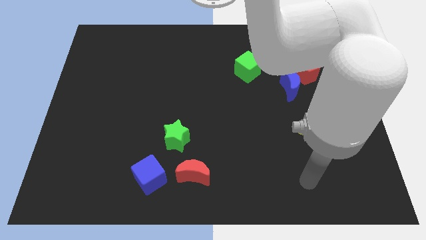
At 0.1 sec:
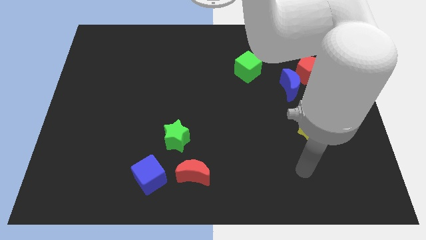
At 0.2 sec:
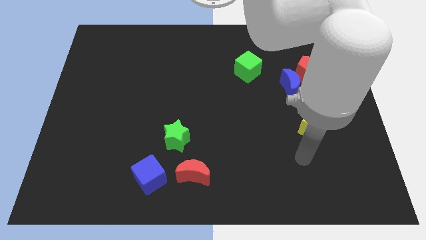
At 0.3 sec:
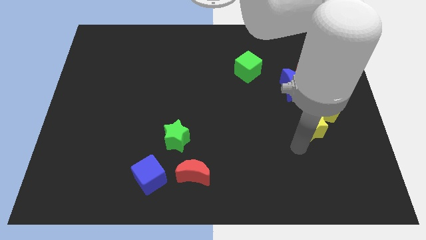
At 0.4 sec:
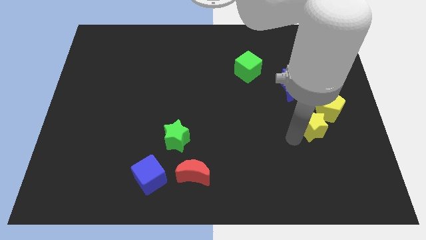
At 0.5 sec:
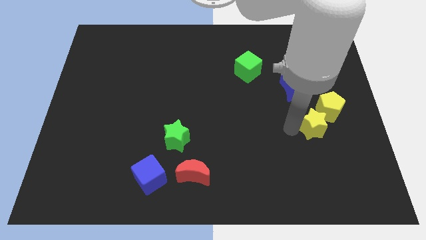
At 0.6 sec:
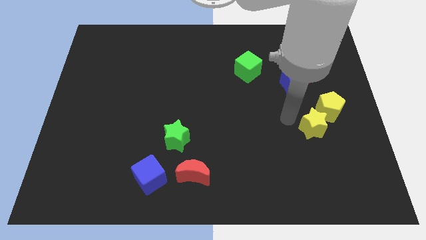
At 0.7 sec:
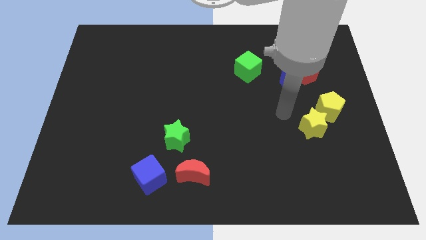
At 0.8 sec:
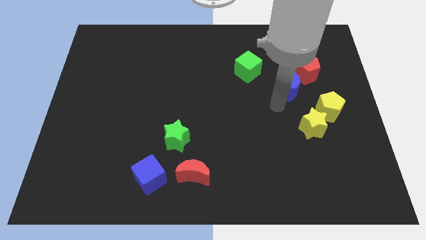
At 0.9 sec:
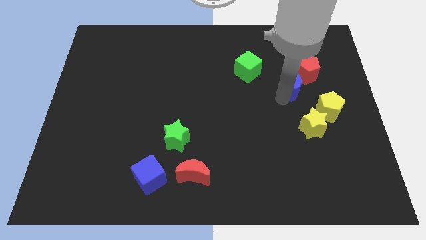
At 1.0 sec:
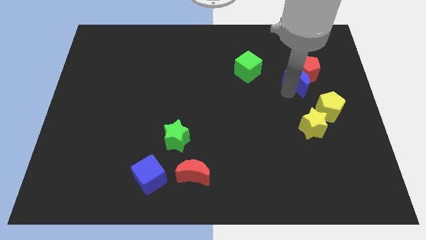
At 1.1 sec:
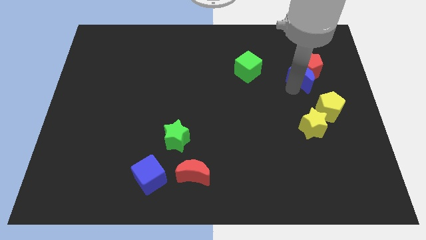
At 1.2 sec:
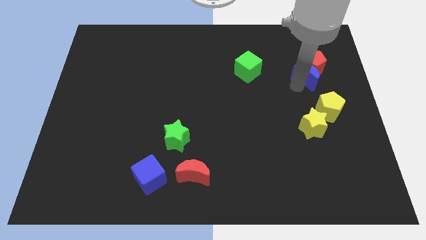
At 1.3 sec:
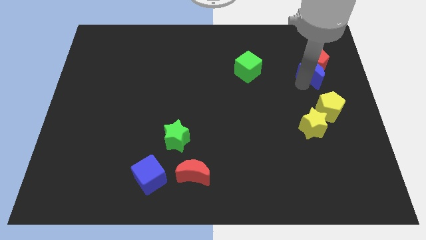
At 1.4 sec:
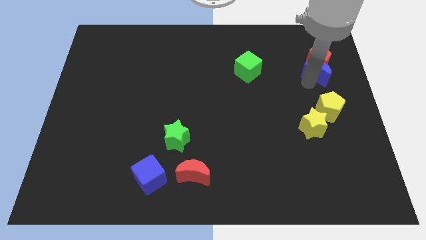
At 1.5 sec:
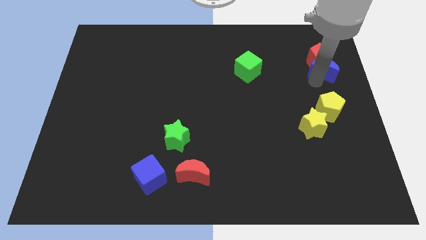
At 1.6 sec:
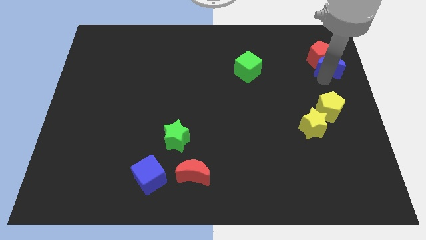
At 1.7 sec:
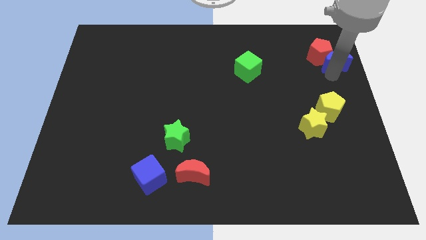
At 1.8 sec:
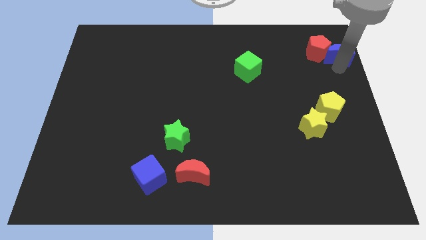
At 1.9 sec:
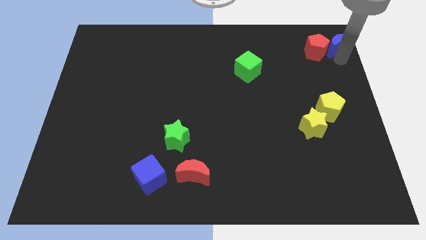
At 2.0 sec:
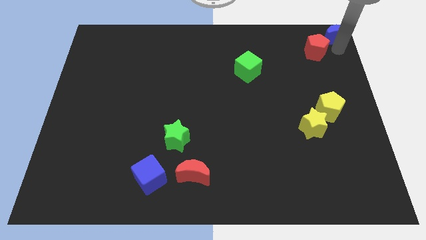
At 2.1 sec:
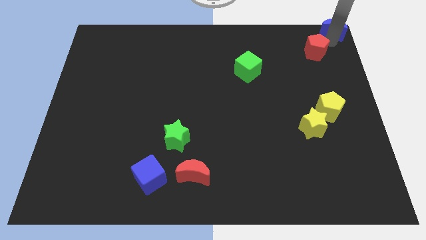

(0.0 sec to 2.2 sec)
separate the red pentagon from the blue moon

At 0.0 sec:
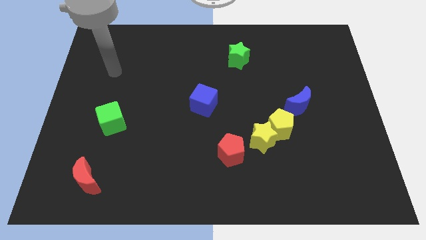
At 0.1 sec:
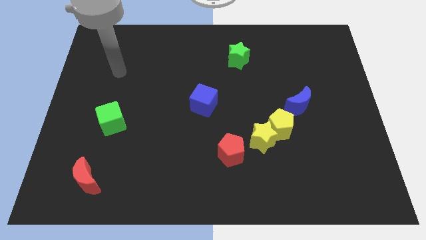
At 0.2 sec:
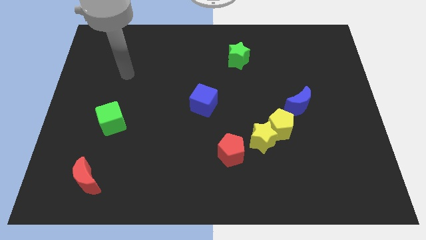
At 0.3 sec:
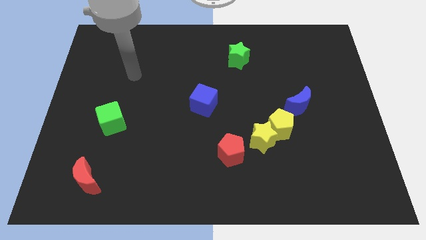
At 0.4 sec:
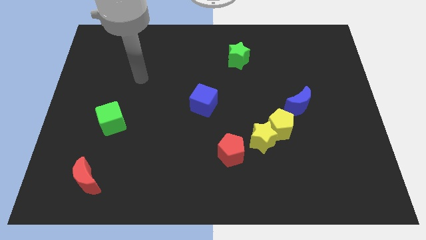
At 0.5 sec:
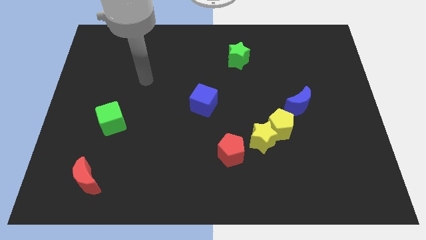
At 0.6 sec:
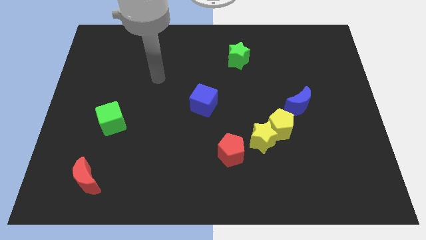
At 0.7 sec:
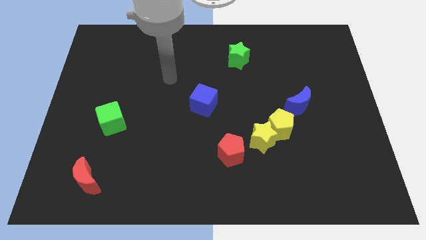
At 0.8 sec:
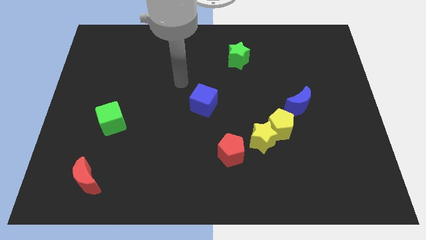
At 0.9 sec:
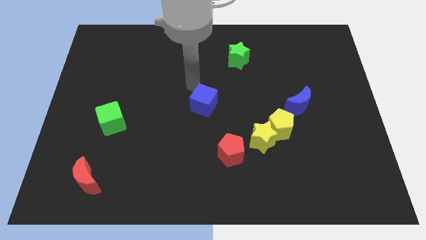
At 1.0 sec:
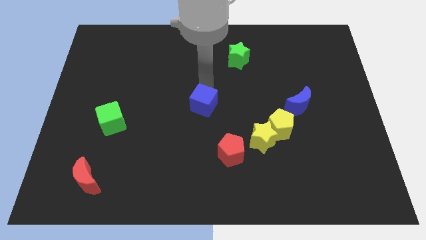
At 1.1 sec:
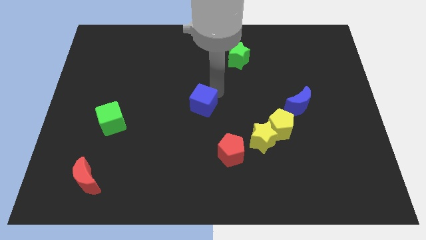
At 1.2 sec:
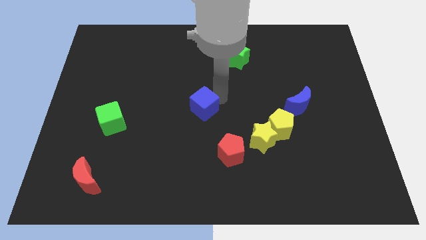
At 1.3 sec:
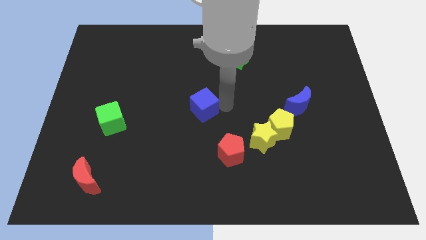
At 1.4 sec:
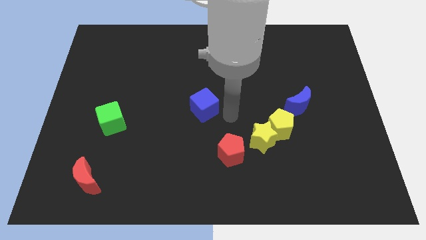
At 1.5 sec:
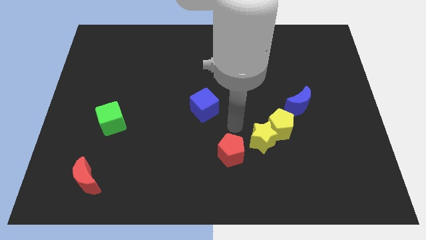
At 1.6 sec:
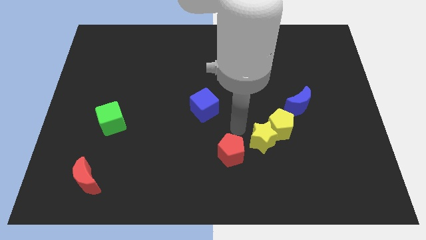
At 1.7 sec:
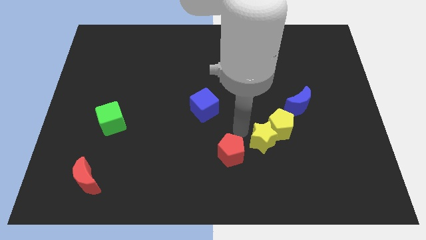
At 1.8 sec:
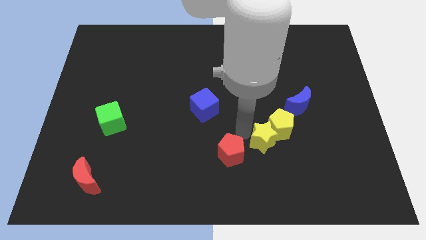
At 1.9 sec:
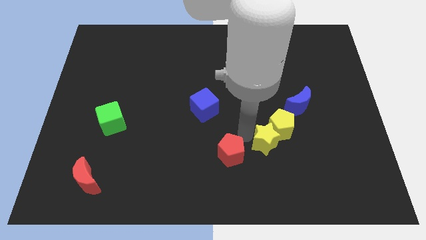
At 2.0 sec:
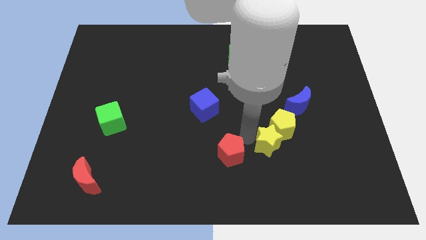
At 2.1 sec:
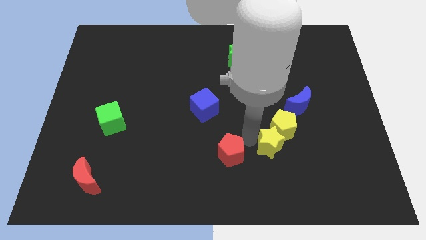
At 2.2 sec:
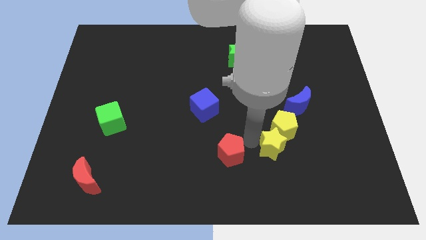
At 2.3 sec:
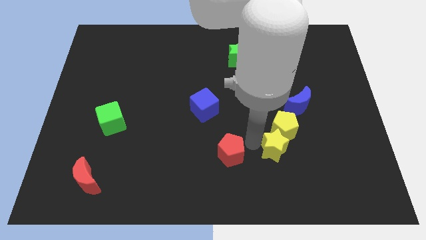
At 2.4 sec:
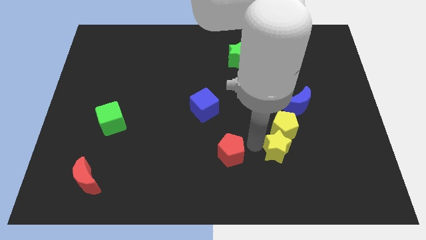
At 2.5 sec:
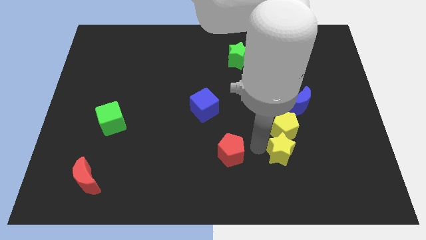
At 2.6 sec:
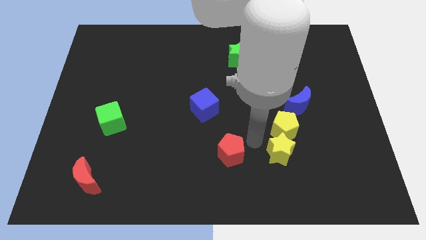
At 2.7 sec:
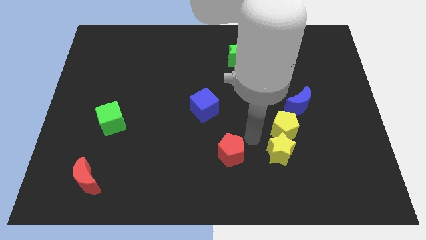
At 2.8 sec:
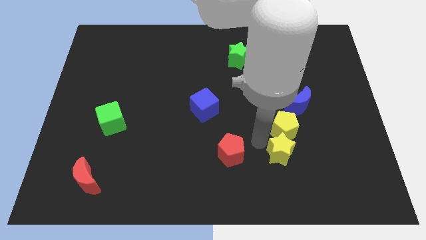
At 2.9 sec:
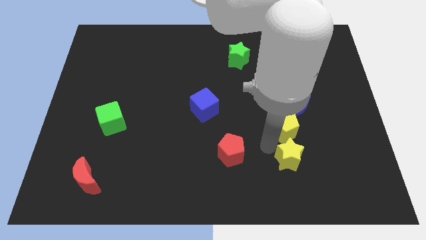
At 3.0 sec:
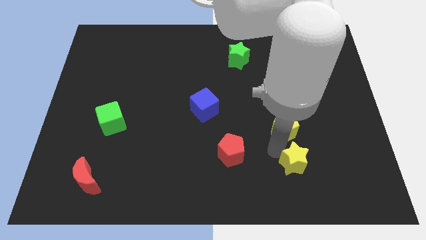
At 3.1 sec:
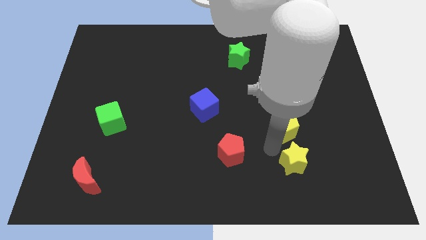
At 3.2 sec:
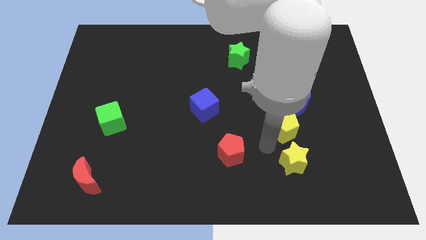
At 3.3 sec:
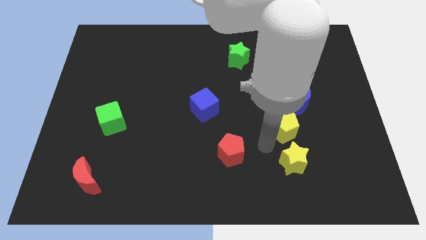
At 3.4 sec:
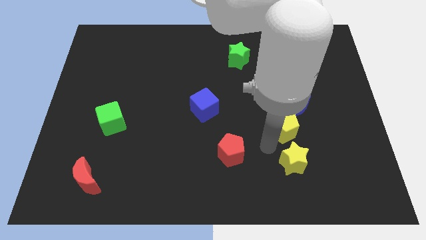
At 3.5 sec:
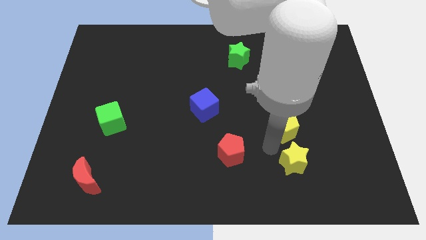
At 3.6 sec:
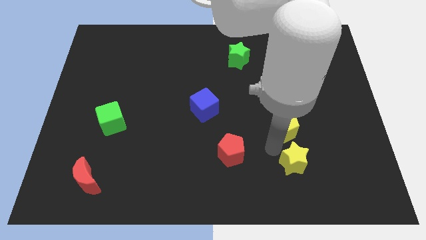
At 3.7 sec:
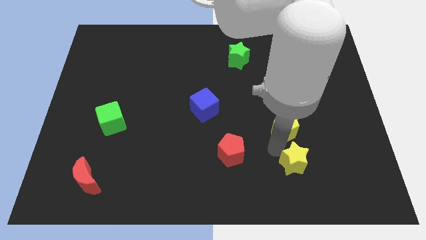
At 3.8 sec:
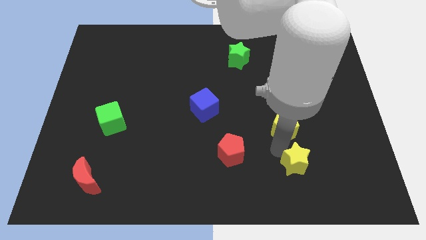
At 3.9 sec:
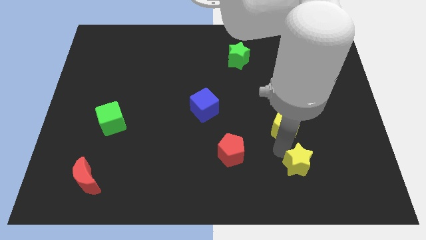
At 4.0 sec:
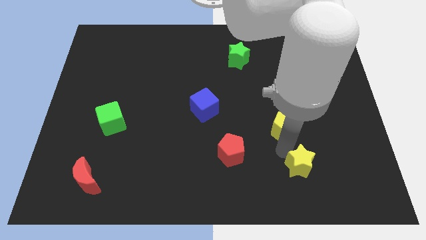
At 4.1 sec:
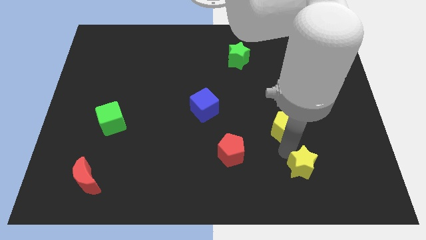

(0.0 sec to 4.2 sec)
pull the yellow star apart from the yellow pentagon and red pentagon

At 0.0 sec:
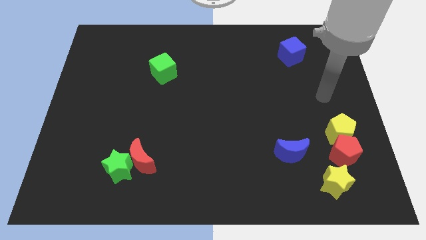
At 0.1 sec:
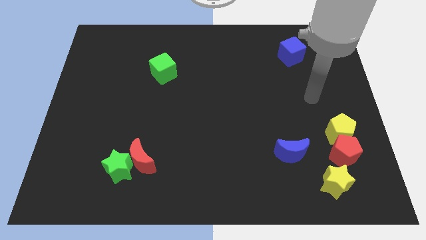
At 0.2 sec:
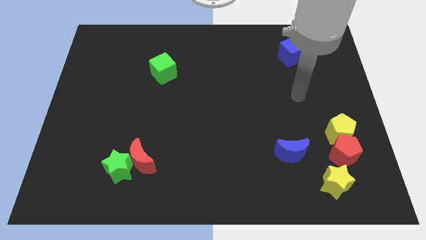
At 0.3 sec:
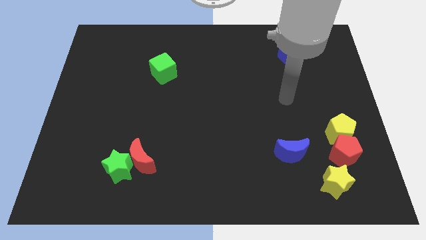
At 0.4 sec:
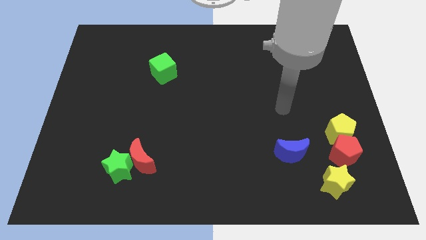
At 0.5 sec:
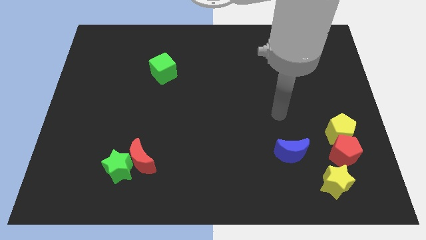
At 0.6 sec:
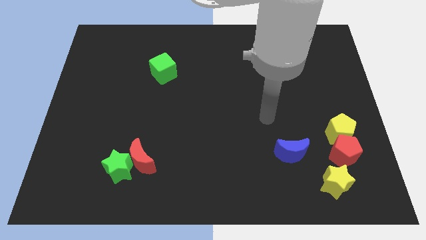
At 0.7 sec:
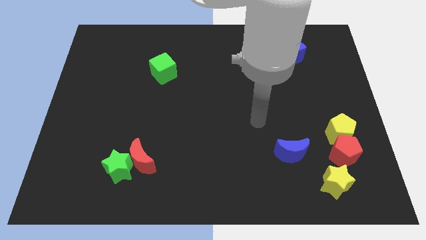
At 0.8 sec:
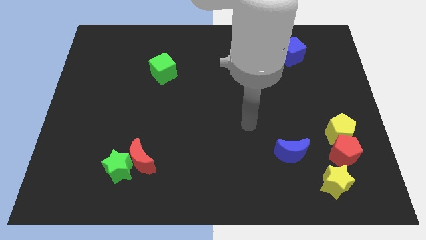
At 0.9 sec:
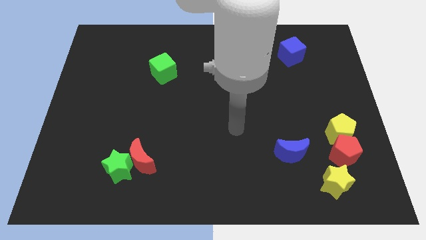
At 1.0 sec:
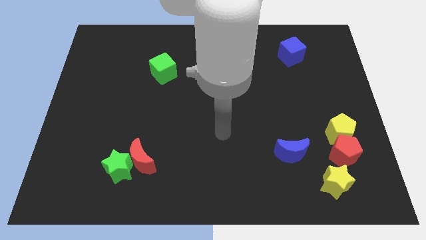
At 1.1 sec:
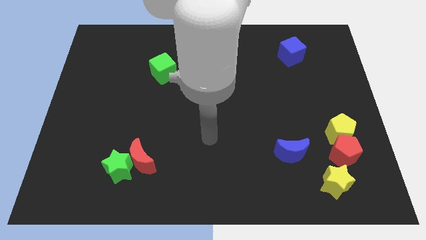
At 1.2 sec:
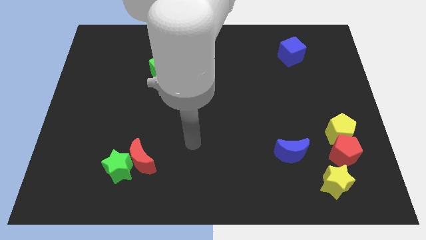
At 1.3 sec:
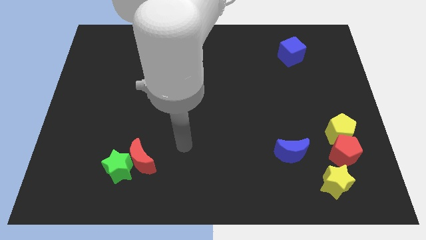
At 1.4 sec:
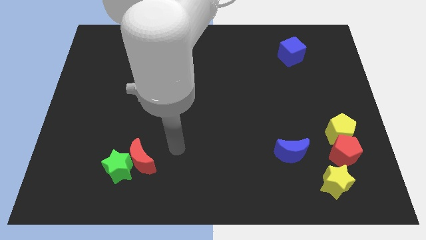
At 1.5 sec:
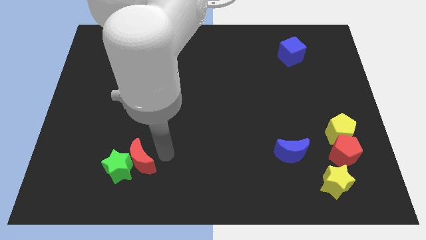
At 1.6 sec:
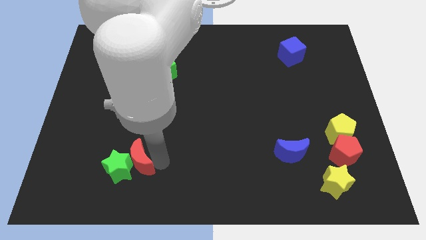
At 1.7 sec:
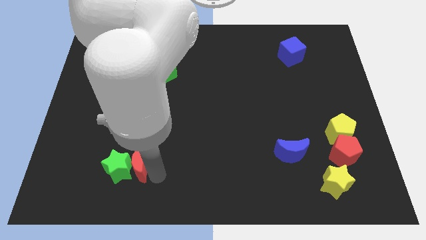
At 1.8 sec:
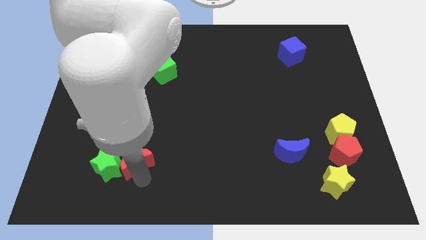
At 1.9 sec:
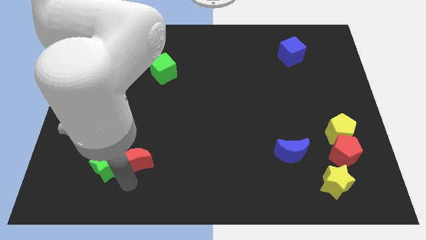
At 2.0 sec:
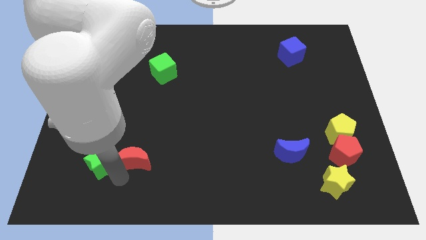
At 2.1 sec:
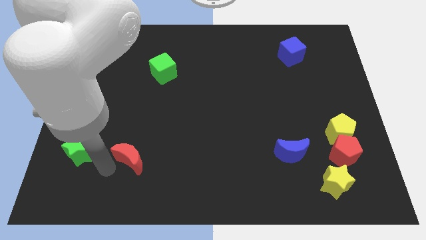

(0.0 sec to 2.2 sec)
pull the red moon apart from the green star

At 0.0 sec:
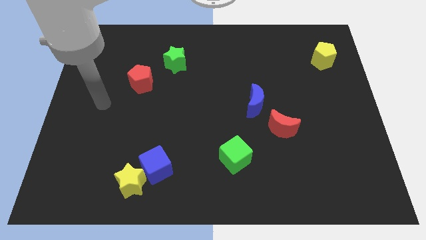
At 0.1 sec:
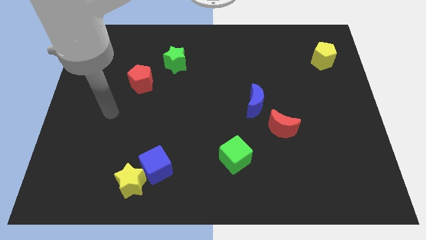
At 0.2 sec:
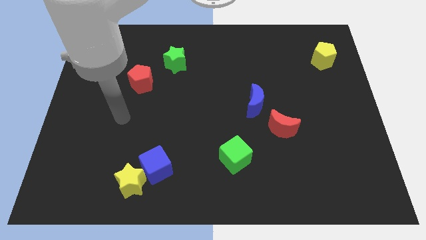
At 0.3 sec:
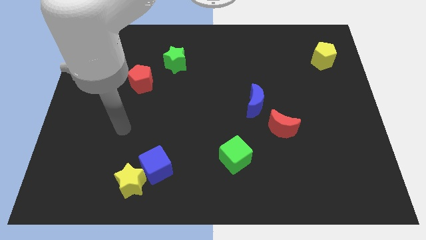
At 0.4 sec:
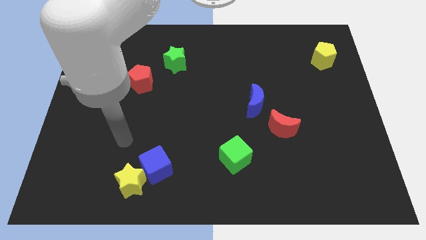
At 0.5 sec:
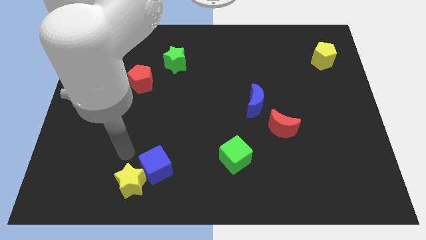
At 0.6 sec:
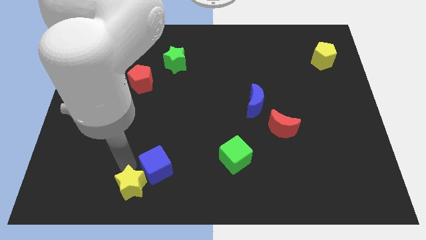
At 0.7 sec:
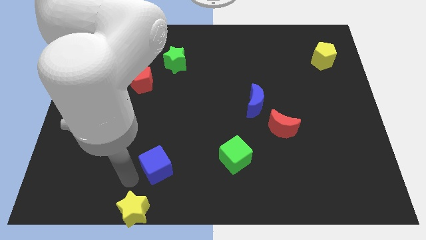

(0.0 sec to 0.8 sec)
move the blue cube away from the yellow star
